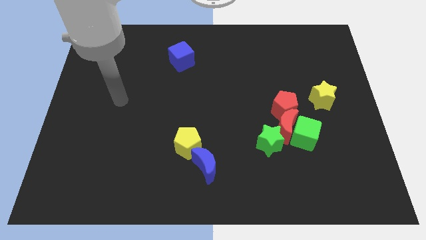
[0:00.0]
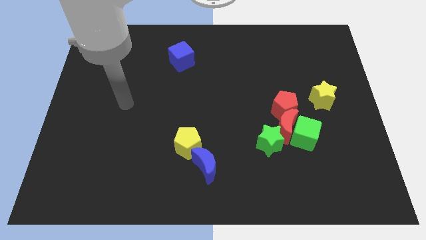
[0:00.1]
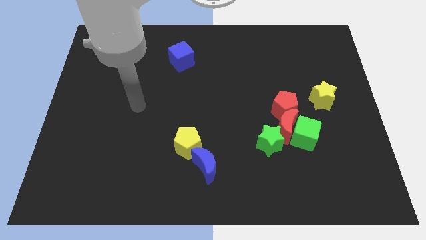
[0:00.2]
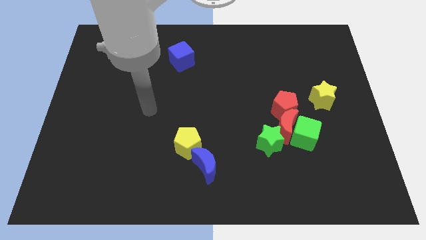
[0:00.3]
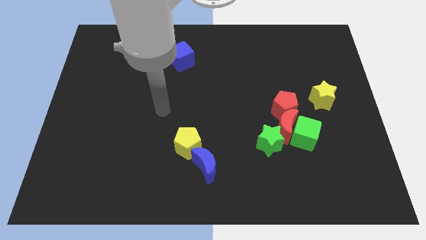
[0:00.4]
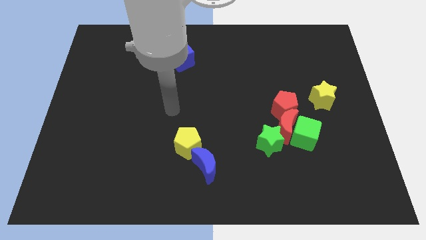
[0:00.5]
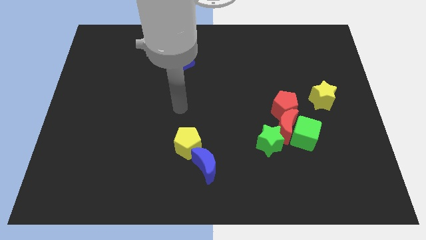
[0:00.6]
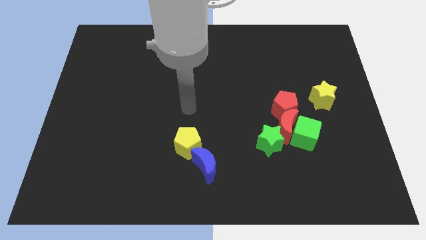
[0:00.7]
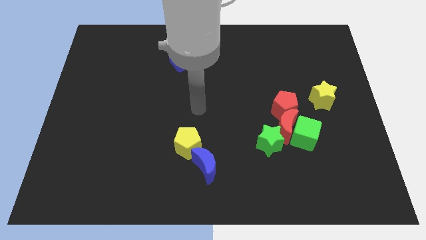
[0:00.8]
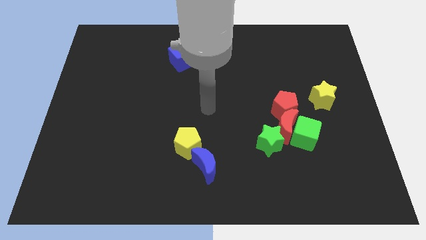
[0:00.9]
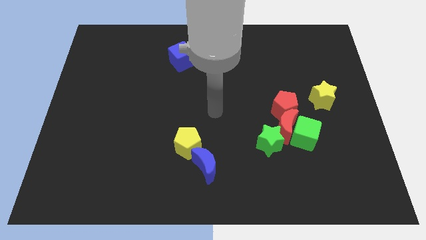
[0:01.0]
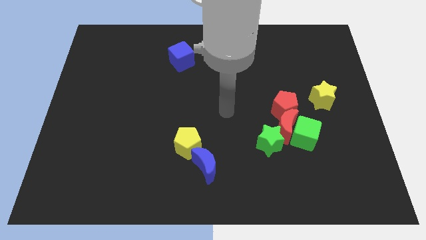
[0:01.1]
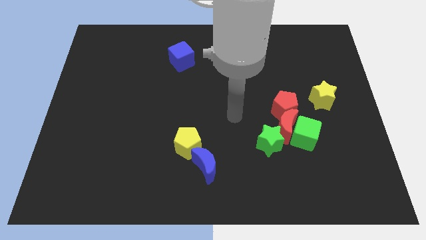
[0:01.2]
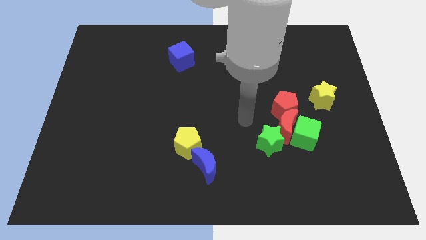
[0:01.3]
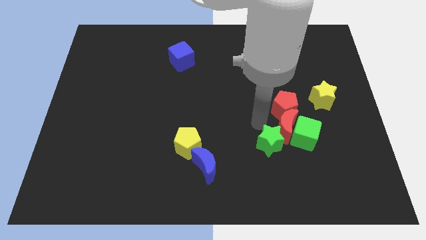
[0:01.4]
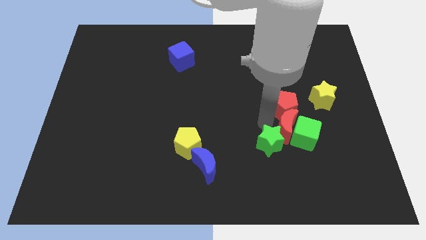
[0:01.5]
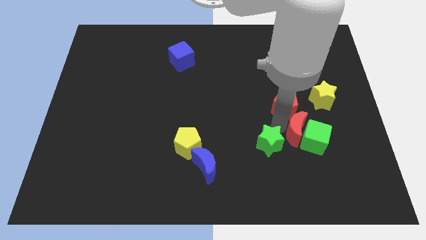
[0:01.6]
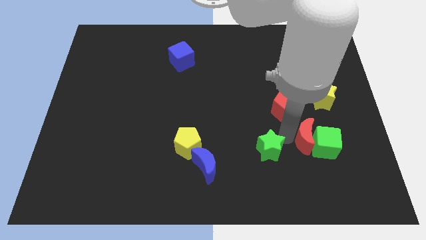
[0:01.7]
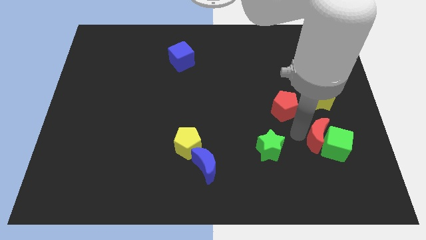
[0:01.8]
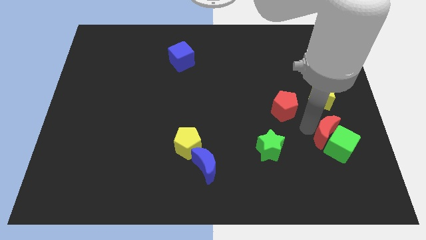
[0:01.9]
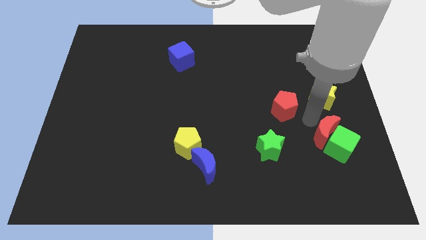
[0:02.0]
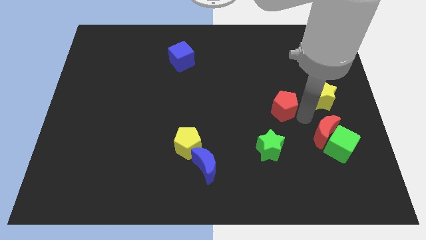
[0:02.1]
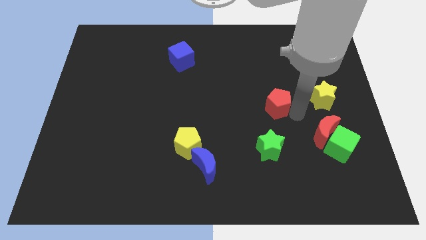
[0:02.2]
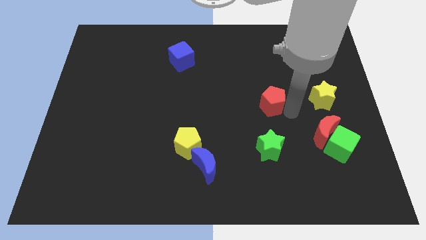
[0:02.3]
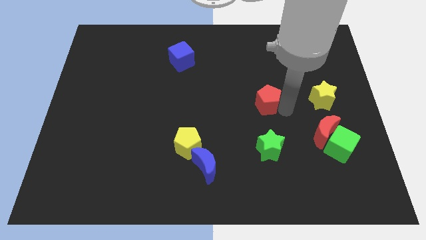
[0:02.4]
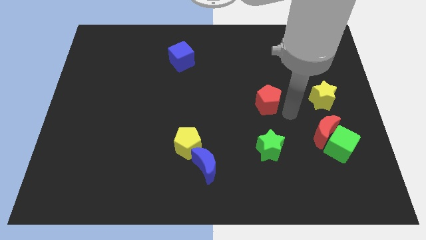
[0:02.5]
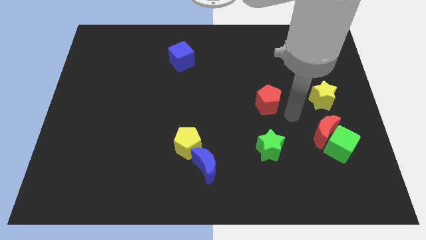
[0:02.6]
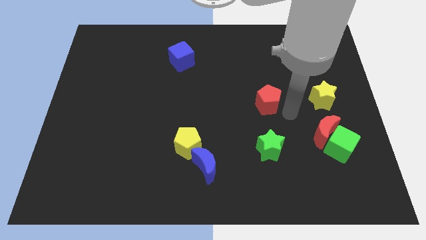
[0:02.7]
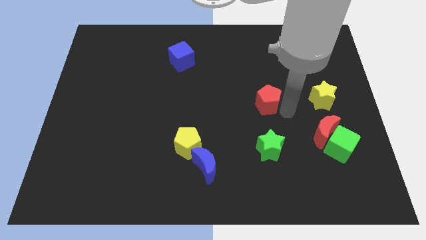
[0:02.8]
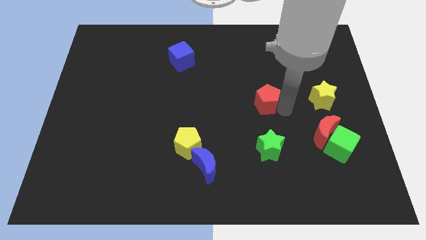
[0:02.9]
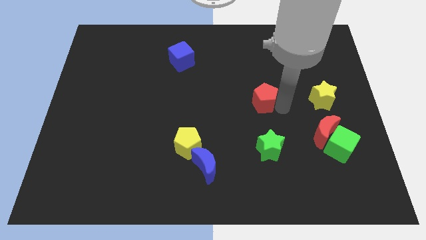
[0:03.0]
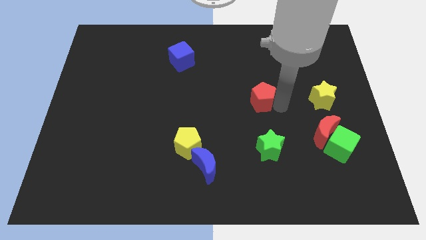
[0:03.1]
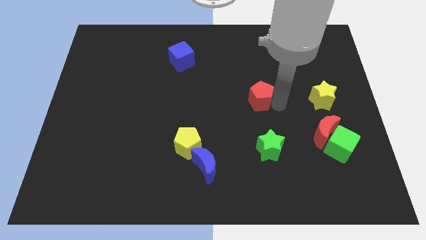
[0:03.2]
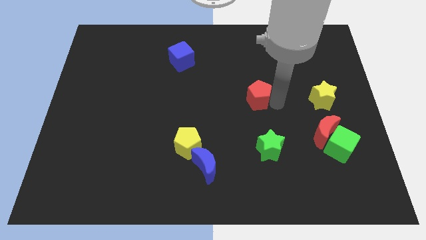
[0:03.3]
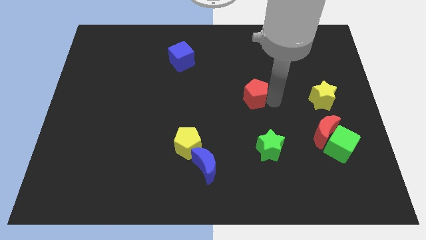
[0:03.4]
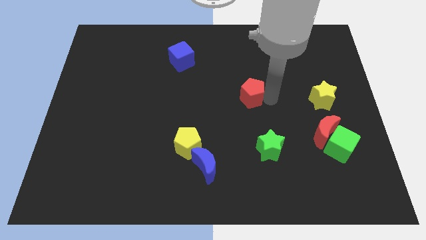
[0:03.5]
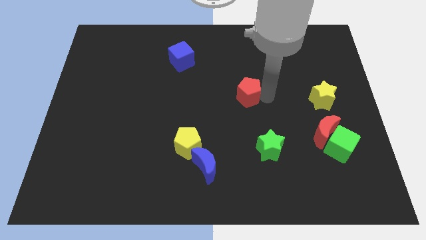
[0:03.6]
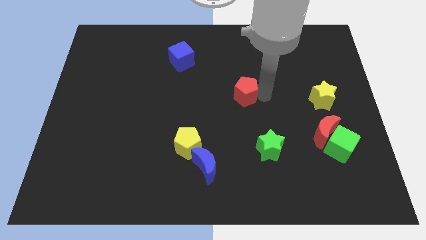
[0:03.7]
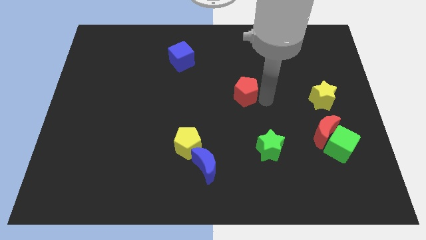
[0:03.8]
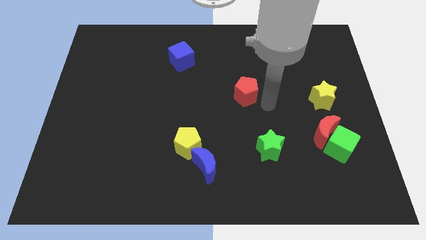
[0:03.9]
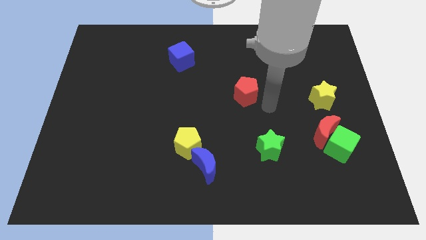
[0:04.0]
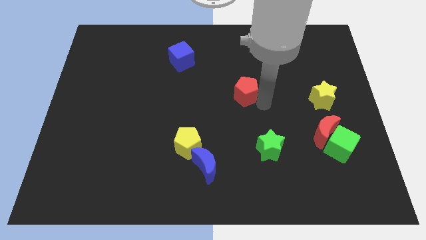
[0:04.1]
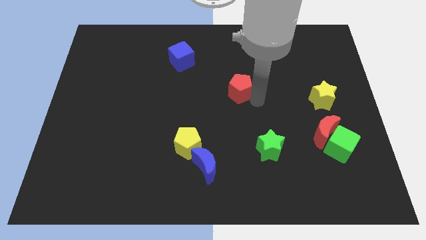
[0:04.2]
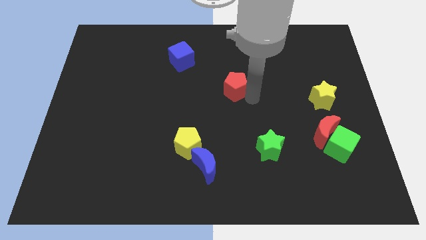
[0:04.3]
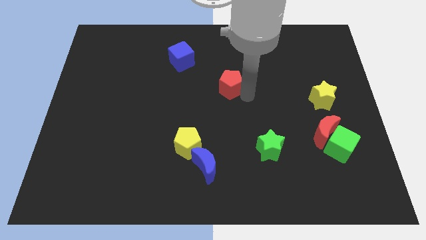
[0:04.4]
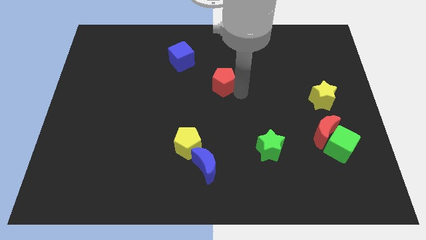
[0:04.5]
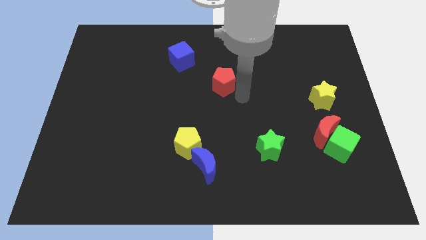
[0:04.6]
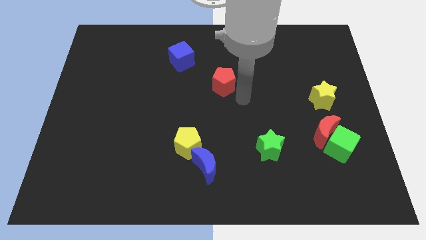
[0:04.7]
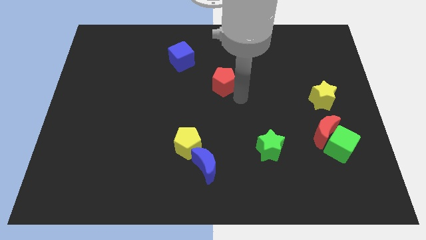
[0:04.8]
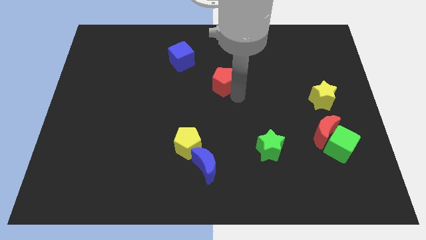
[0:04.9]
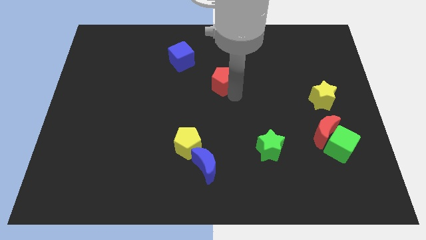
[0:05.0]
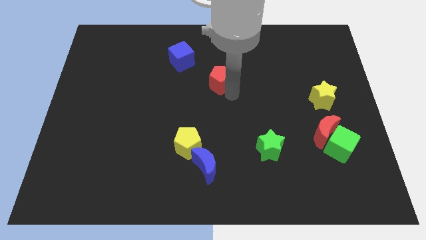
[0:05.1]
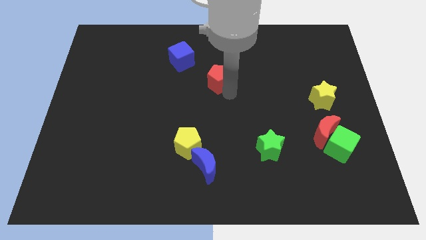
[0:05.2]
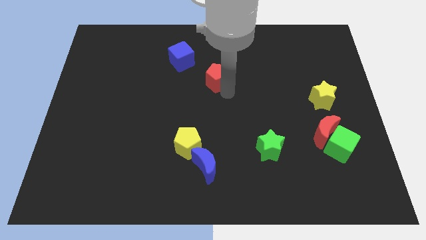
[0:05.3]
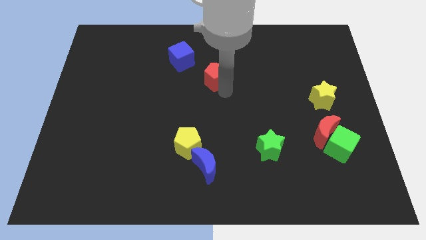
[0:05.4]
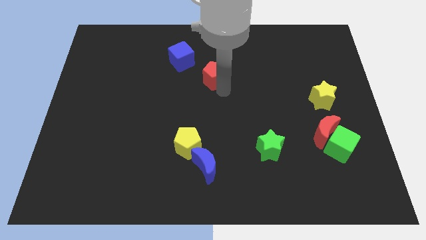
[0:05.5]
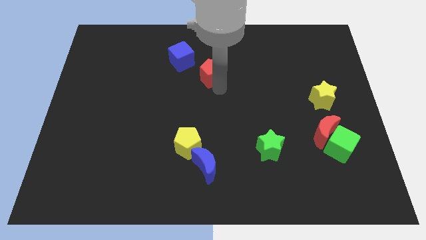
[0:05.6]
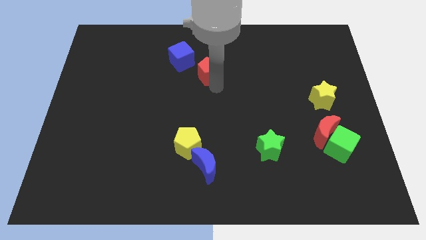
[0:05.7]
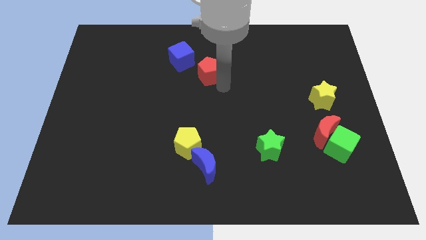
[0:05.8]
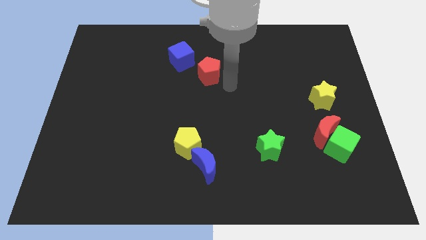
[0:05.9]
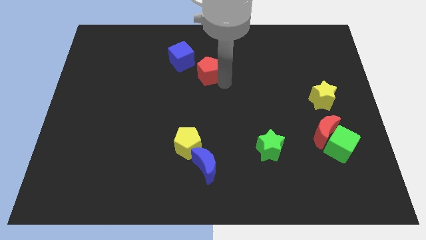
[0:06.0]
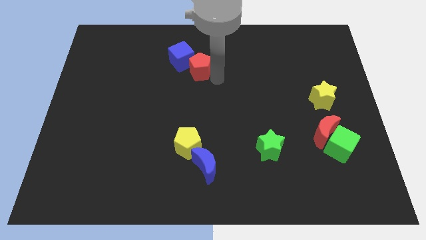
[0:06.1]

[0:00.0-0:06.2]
push the red pentagon to the blue cube
